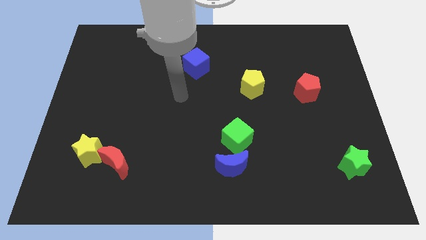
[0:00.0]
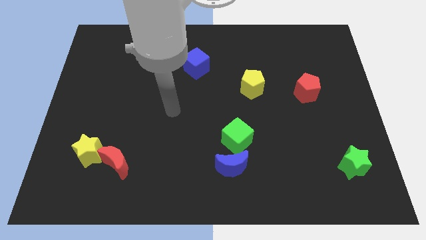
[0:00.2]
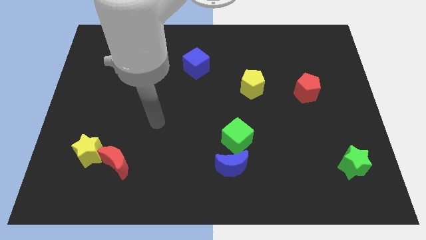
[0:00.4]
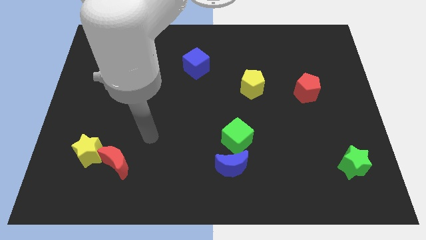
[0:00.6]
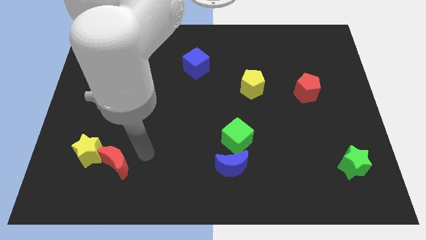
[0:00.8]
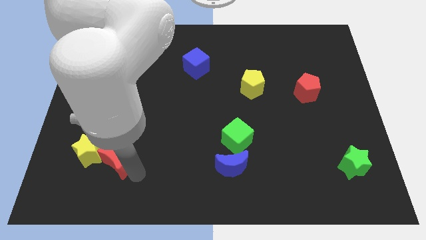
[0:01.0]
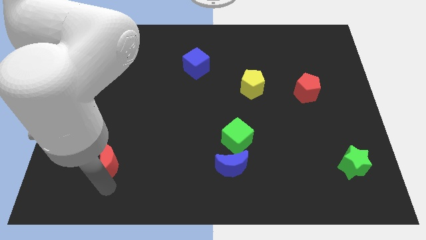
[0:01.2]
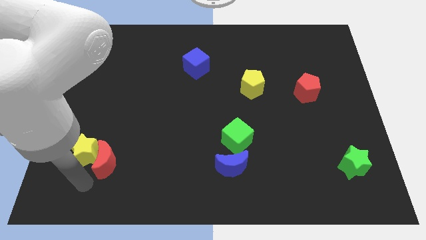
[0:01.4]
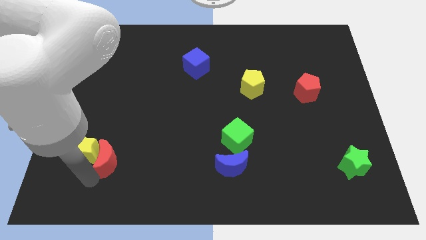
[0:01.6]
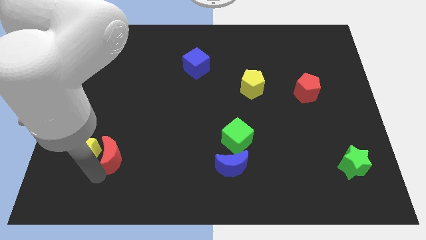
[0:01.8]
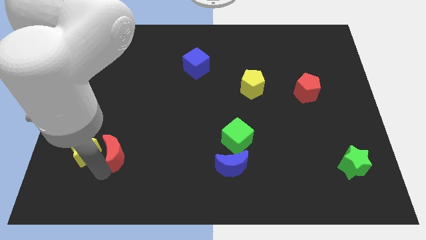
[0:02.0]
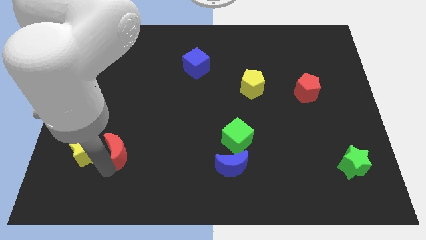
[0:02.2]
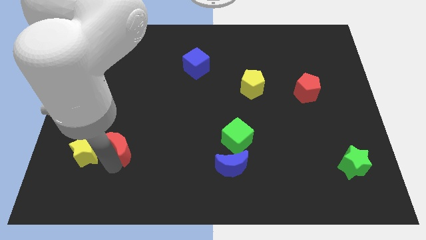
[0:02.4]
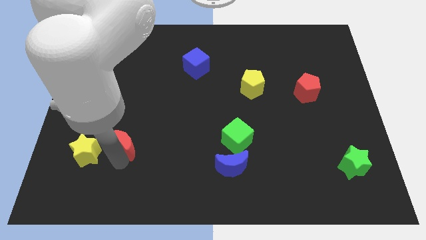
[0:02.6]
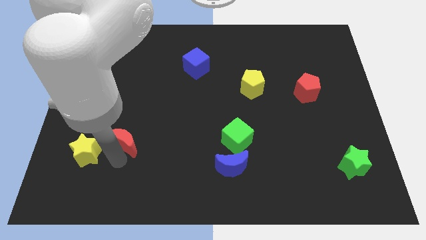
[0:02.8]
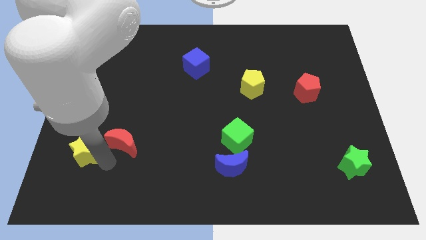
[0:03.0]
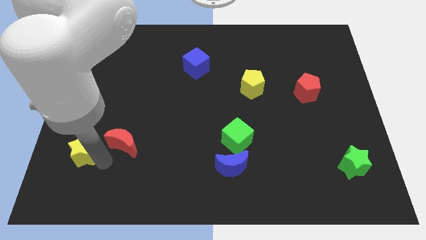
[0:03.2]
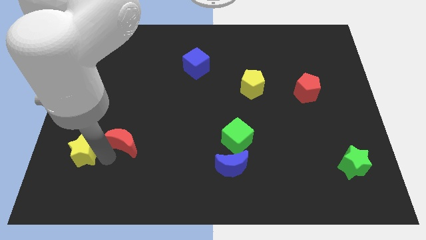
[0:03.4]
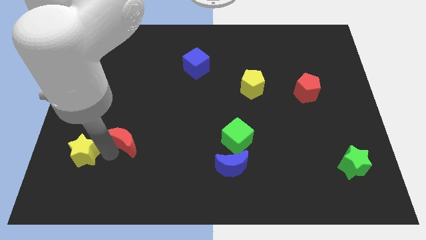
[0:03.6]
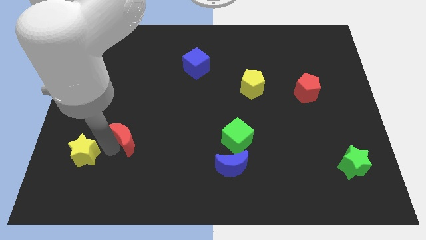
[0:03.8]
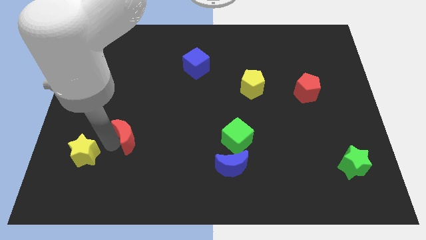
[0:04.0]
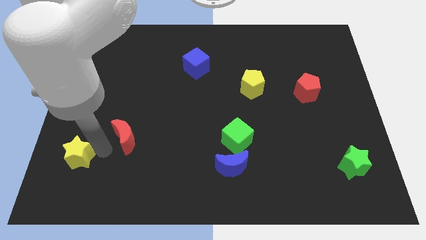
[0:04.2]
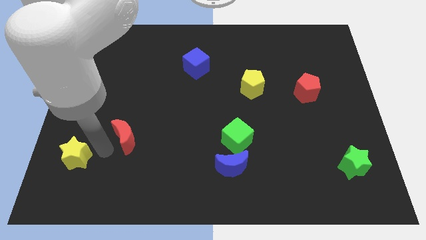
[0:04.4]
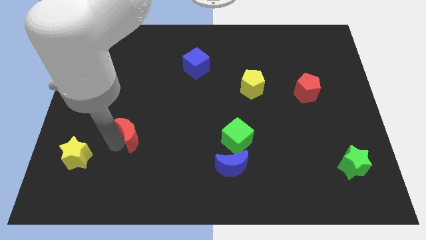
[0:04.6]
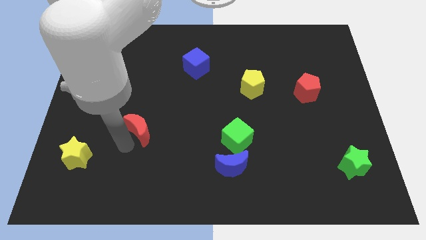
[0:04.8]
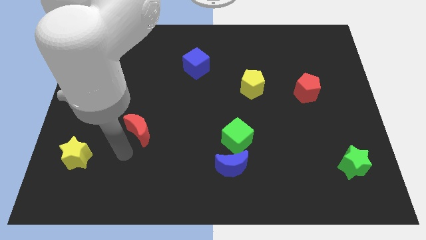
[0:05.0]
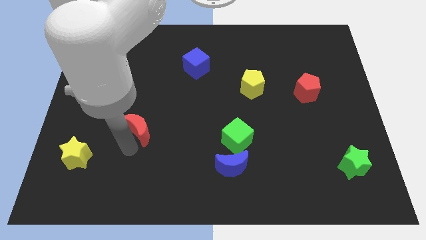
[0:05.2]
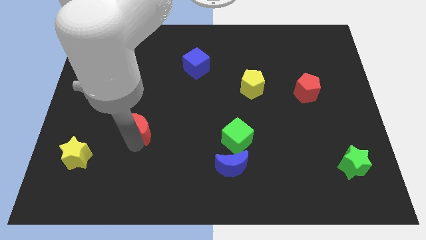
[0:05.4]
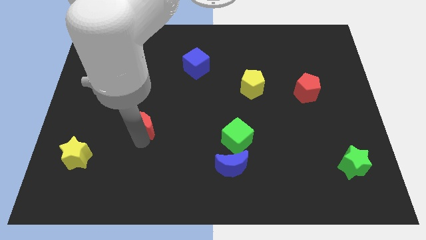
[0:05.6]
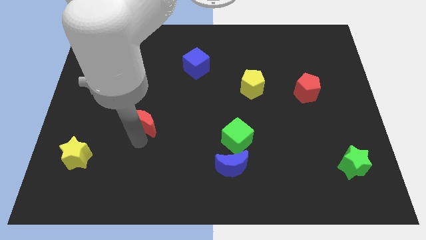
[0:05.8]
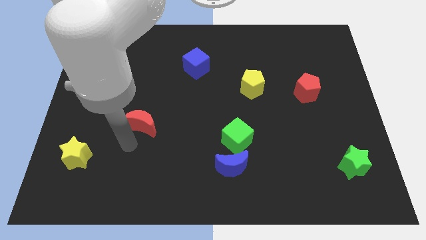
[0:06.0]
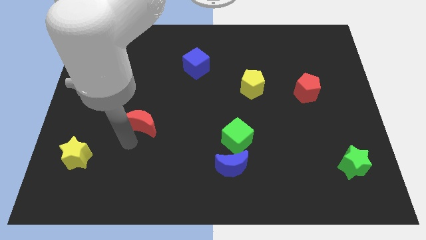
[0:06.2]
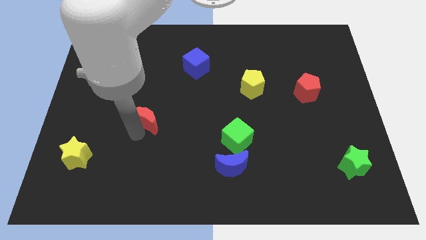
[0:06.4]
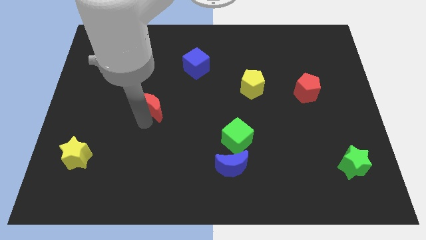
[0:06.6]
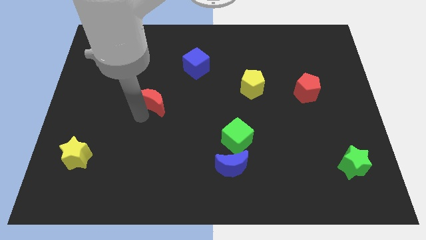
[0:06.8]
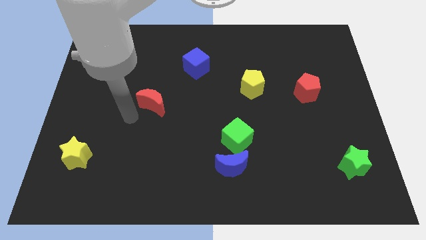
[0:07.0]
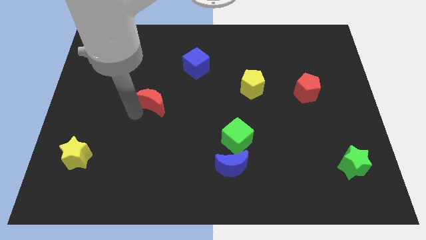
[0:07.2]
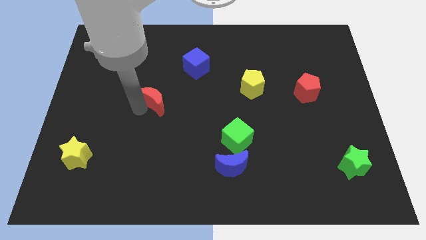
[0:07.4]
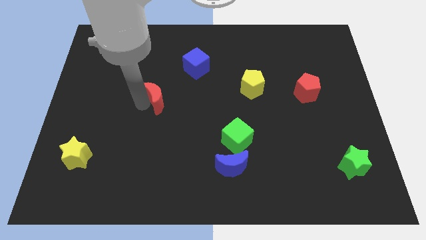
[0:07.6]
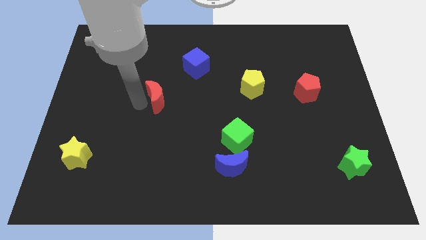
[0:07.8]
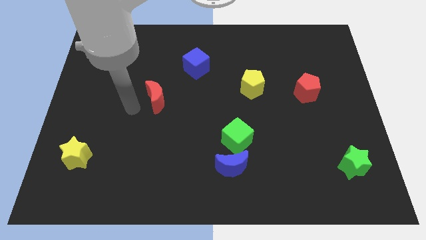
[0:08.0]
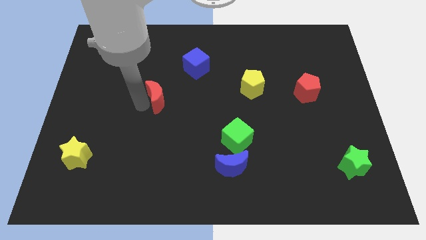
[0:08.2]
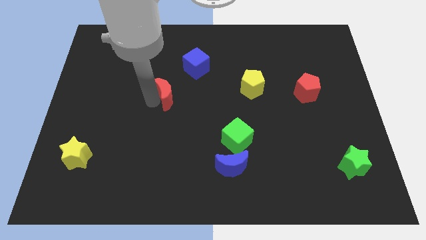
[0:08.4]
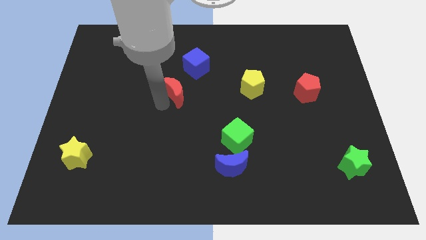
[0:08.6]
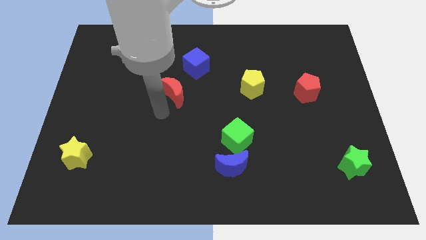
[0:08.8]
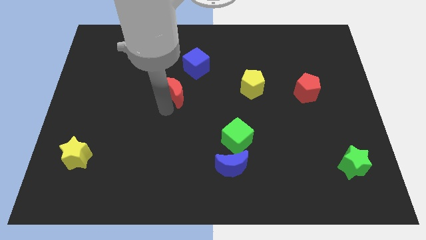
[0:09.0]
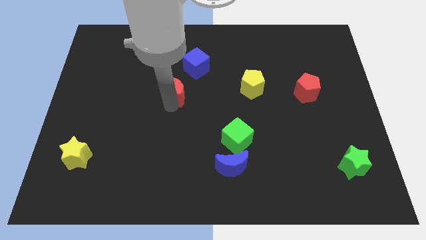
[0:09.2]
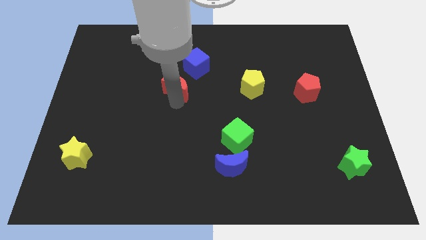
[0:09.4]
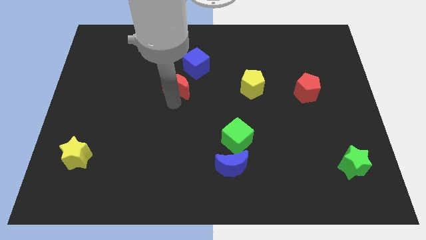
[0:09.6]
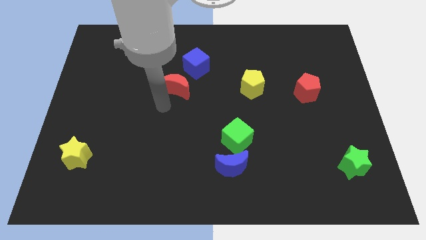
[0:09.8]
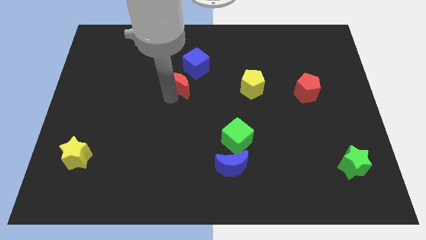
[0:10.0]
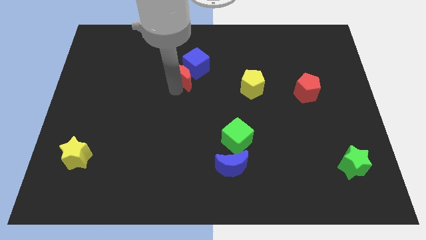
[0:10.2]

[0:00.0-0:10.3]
move the red moon close to the blue cube

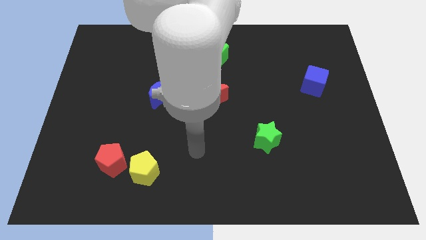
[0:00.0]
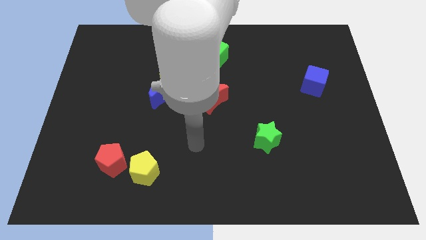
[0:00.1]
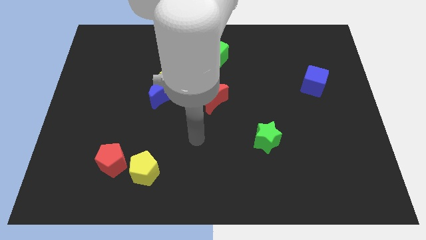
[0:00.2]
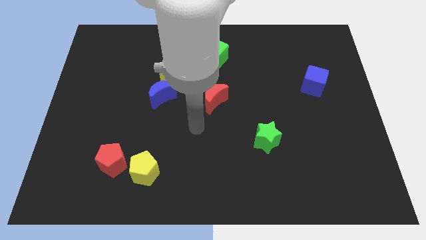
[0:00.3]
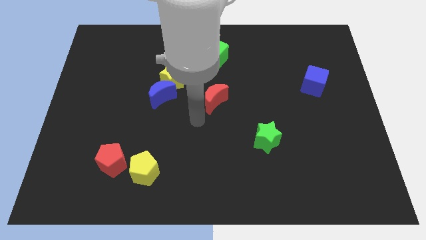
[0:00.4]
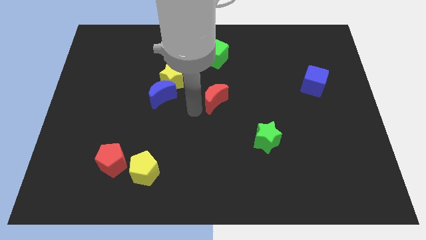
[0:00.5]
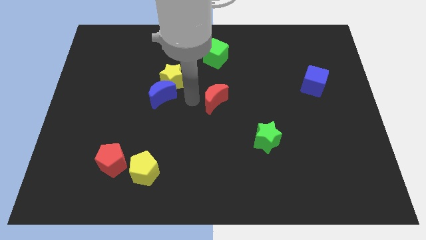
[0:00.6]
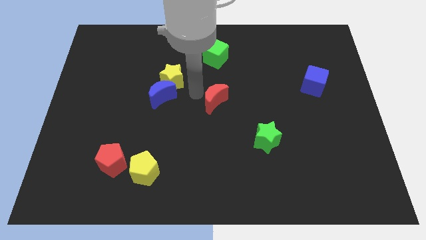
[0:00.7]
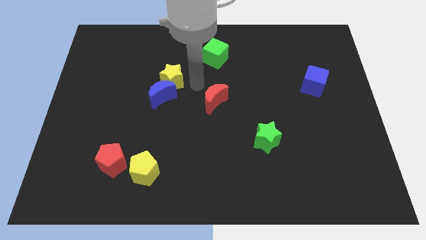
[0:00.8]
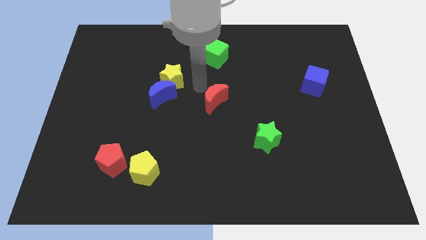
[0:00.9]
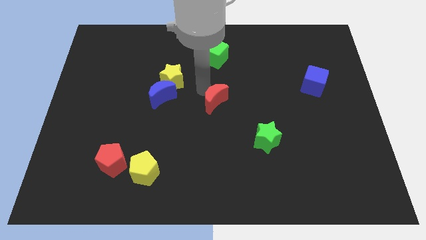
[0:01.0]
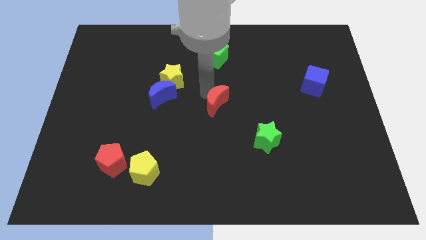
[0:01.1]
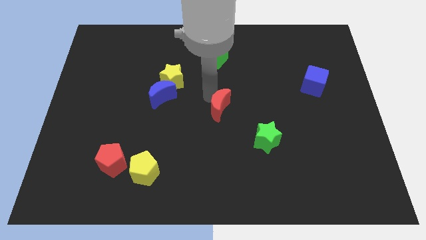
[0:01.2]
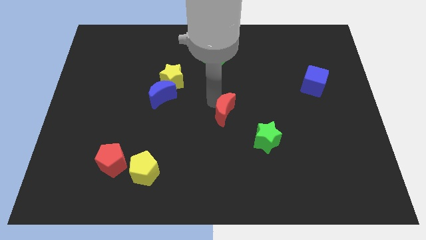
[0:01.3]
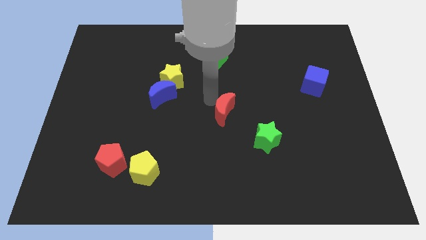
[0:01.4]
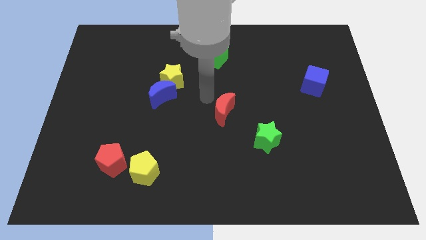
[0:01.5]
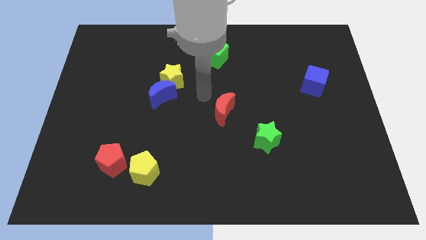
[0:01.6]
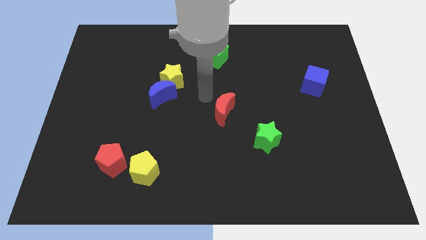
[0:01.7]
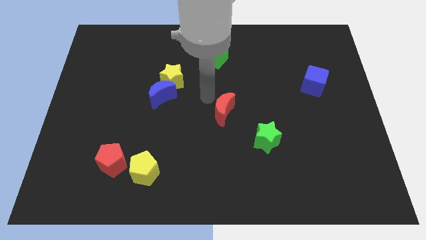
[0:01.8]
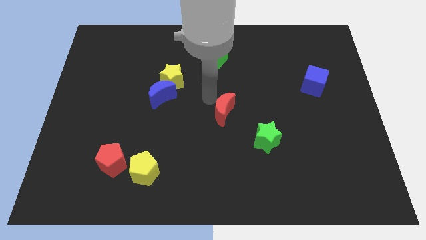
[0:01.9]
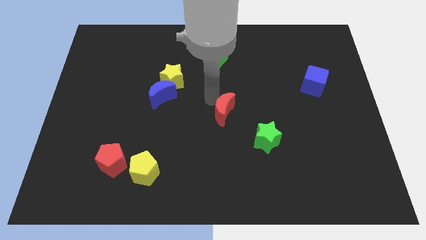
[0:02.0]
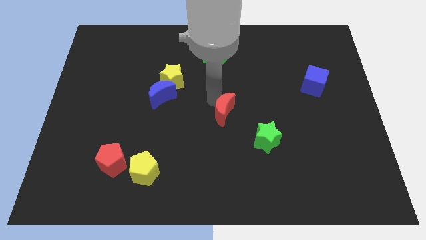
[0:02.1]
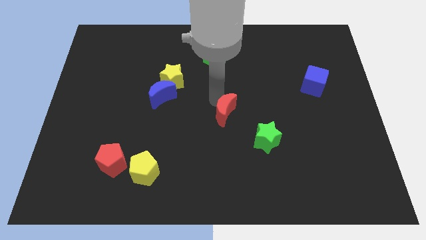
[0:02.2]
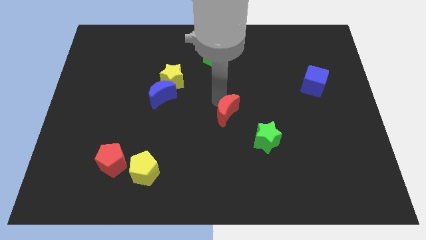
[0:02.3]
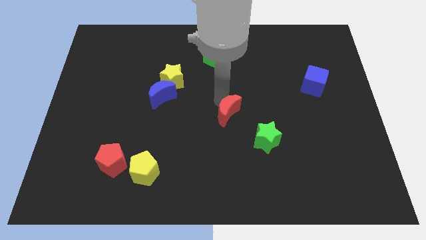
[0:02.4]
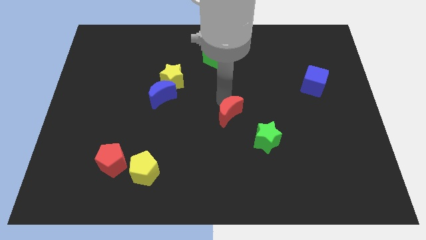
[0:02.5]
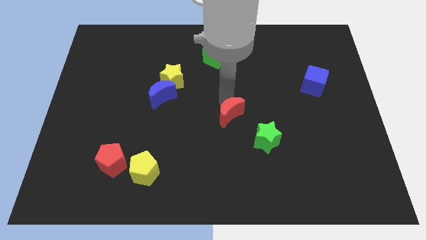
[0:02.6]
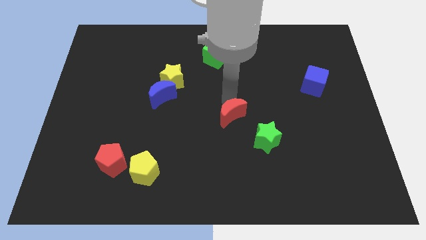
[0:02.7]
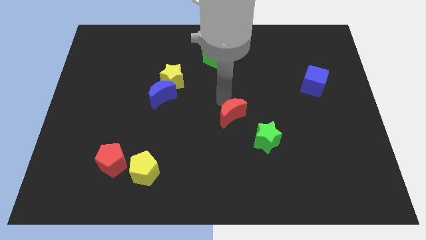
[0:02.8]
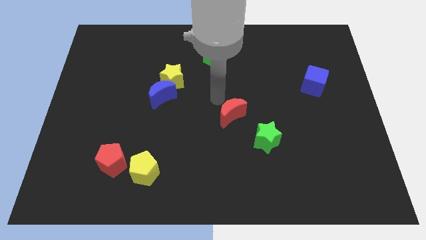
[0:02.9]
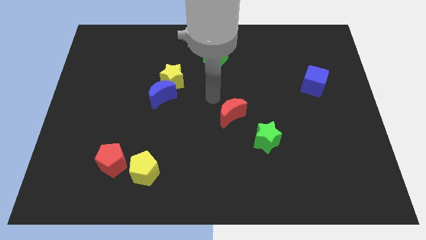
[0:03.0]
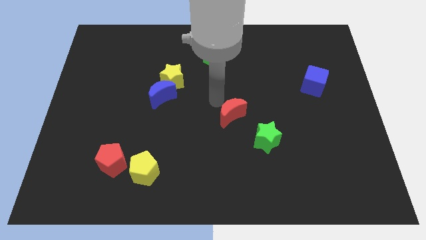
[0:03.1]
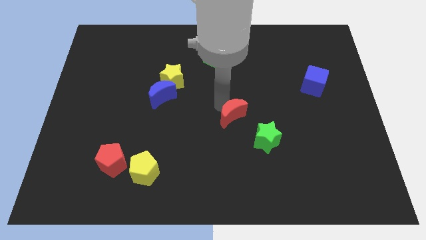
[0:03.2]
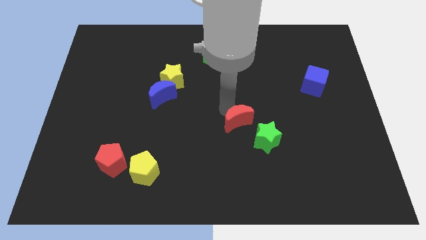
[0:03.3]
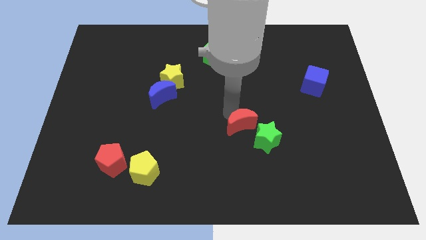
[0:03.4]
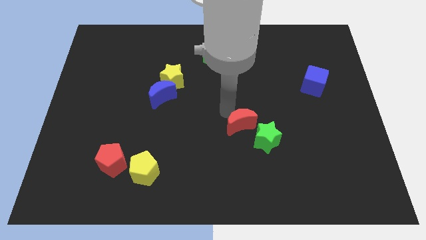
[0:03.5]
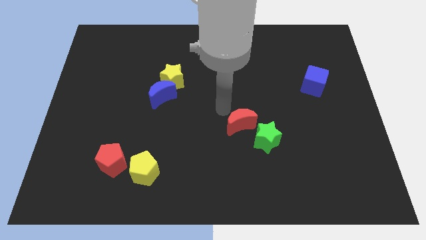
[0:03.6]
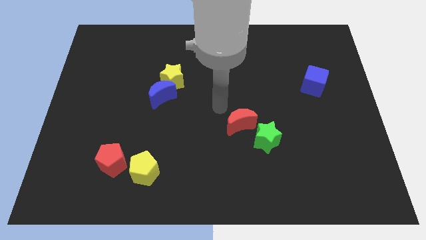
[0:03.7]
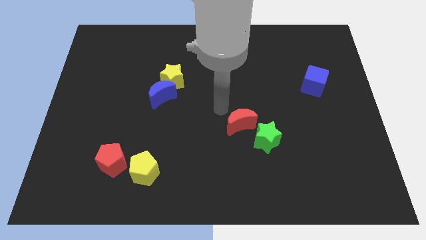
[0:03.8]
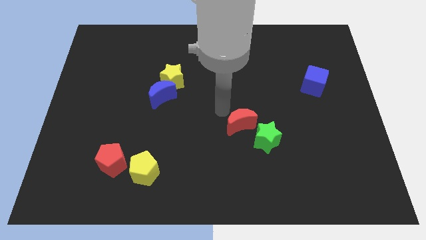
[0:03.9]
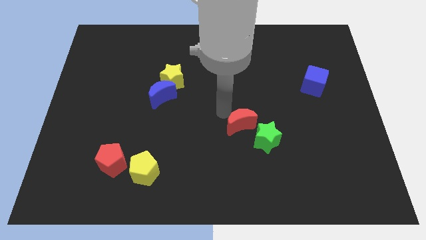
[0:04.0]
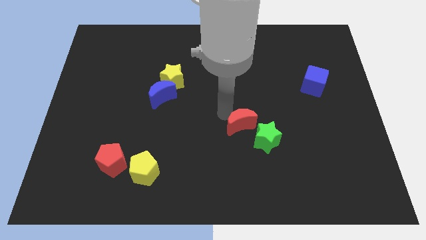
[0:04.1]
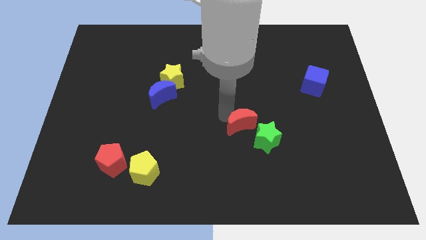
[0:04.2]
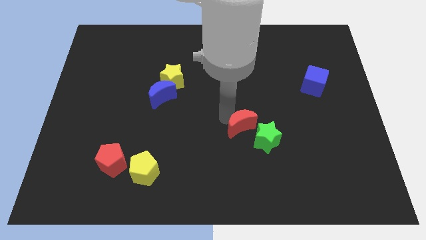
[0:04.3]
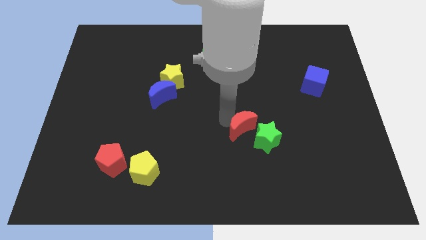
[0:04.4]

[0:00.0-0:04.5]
put the red moon next to the green star
